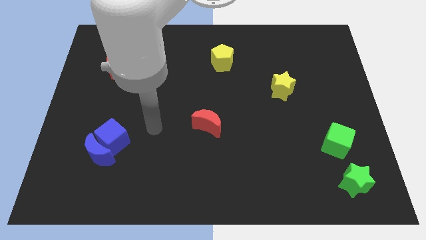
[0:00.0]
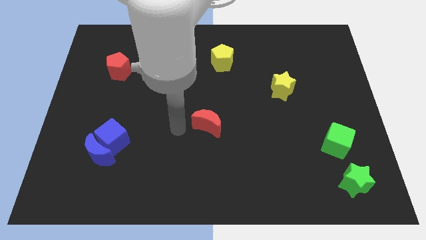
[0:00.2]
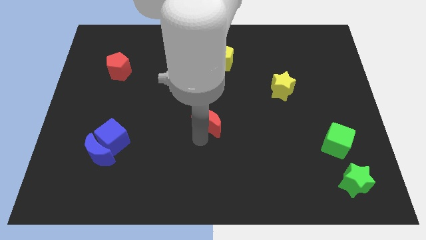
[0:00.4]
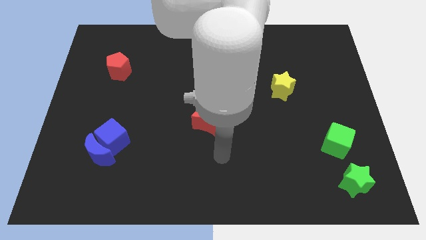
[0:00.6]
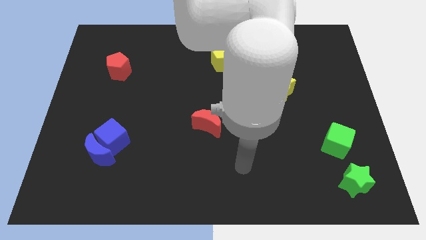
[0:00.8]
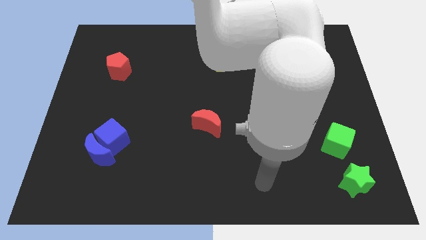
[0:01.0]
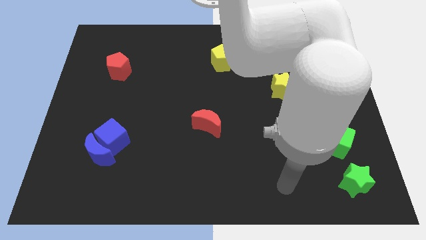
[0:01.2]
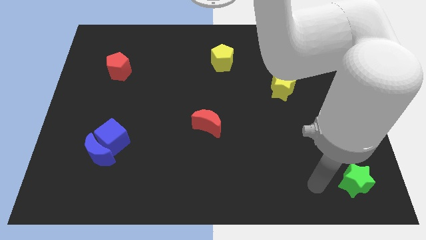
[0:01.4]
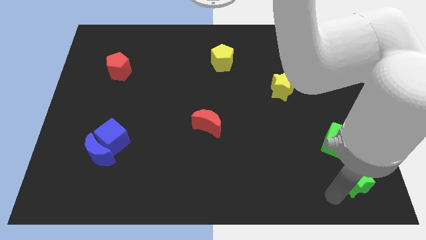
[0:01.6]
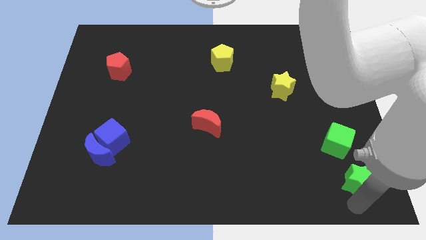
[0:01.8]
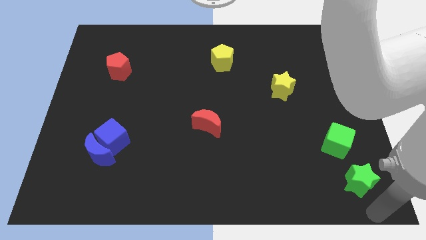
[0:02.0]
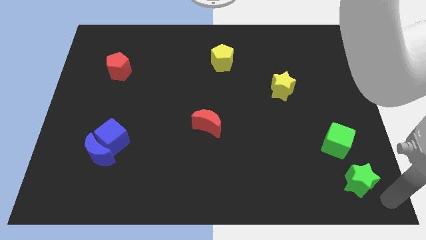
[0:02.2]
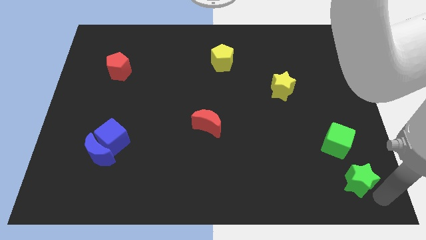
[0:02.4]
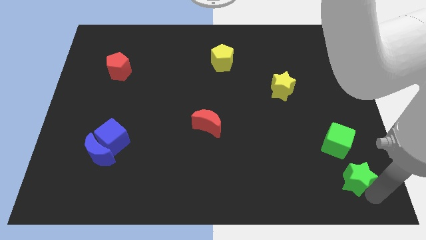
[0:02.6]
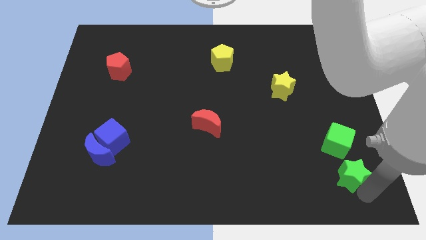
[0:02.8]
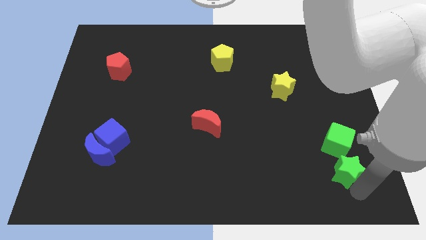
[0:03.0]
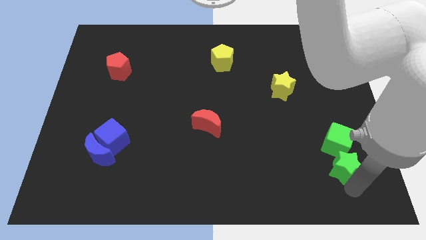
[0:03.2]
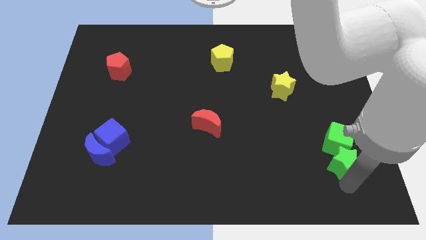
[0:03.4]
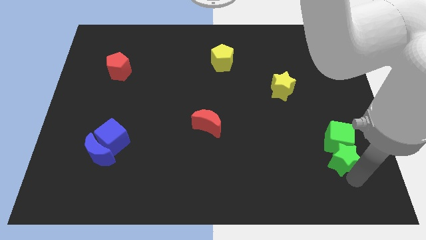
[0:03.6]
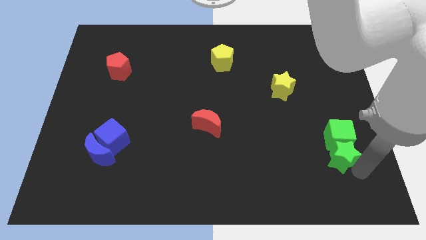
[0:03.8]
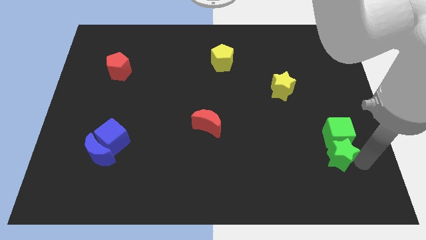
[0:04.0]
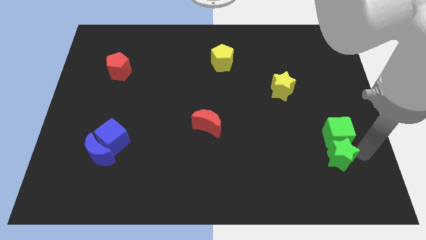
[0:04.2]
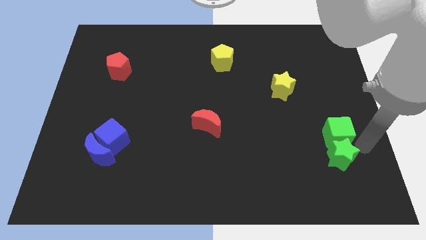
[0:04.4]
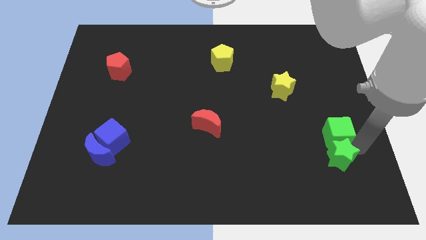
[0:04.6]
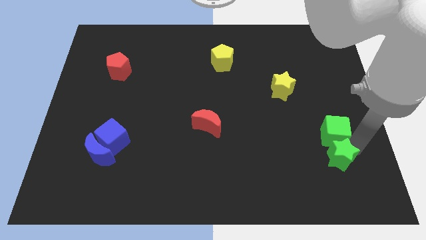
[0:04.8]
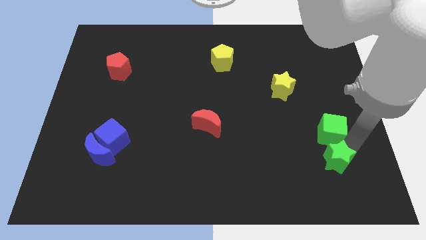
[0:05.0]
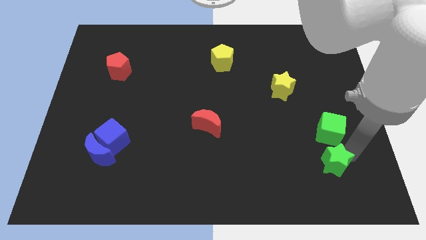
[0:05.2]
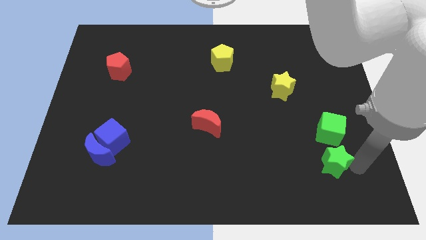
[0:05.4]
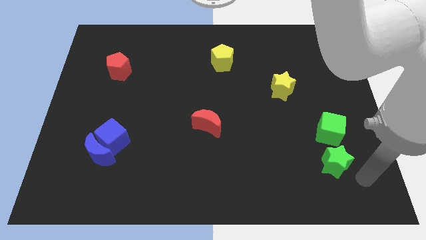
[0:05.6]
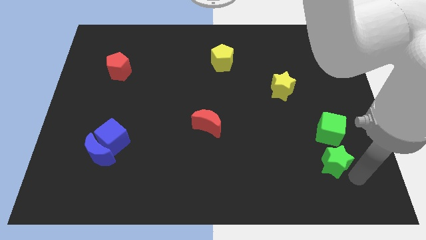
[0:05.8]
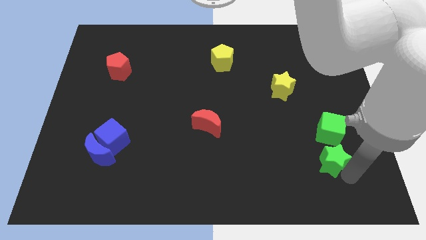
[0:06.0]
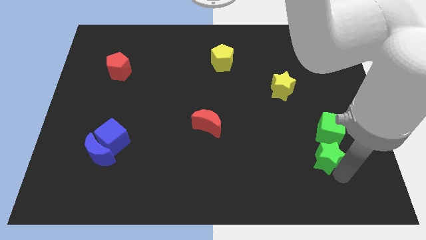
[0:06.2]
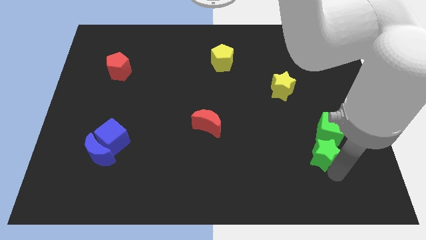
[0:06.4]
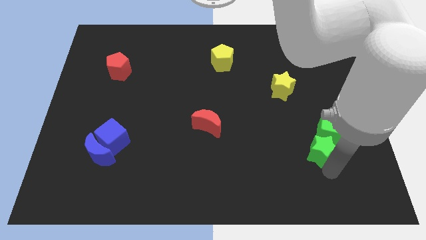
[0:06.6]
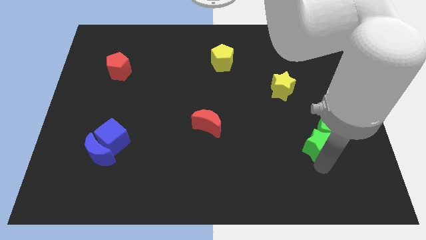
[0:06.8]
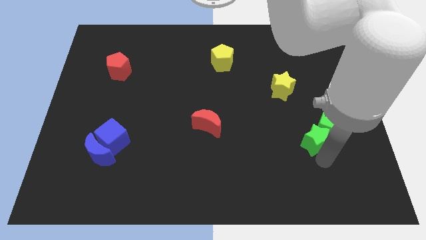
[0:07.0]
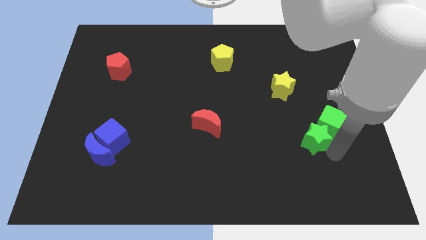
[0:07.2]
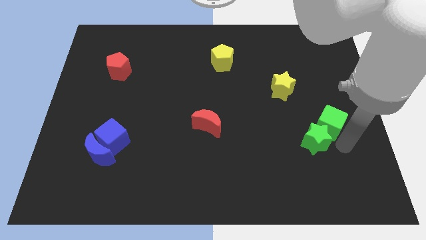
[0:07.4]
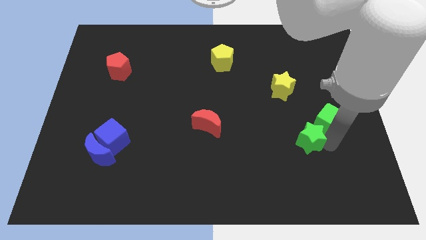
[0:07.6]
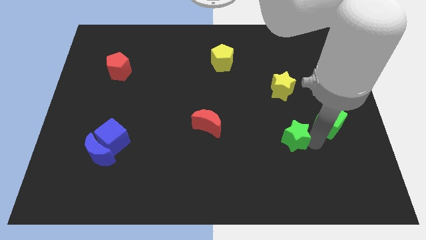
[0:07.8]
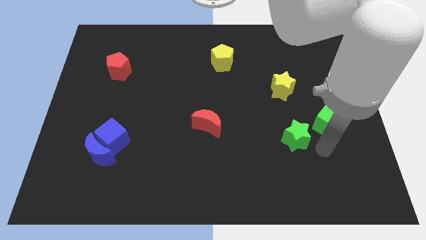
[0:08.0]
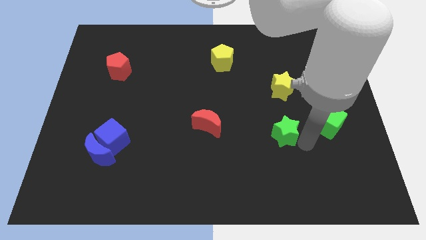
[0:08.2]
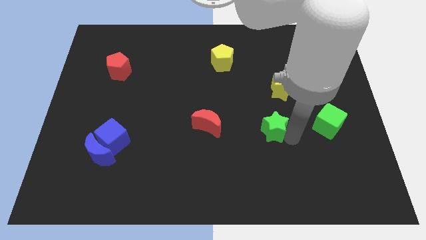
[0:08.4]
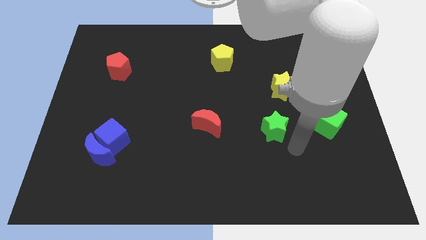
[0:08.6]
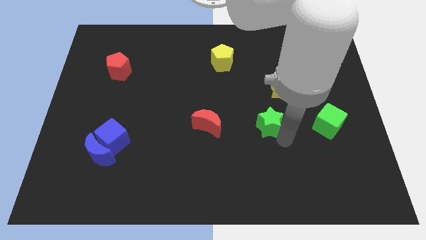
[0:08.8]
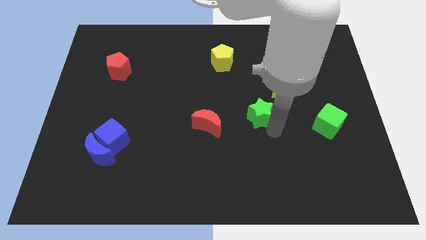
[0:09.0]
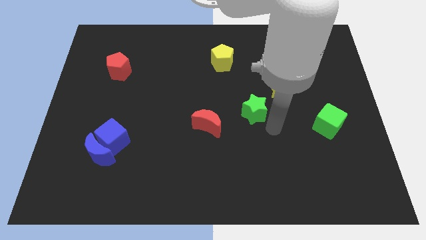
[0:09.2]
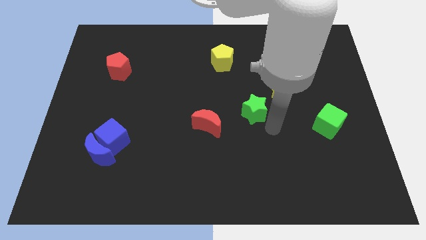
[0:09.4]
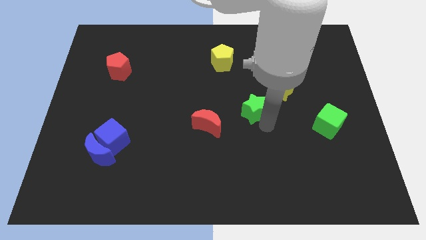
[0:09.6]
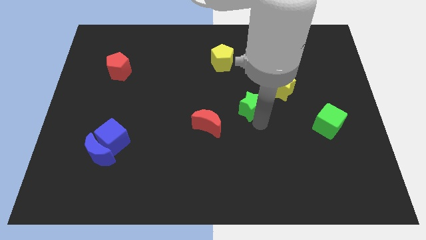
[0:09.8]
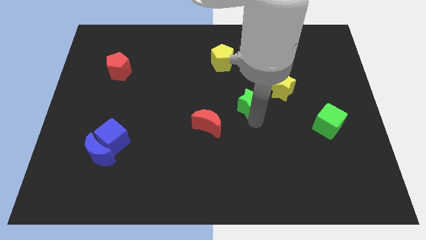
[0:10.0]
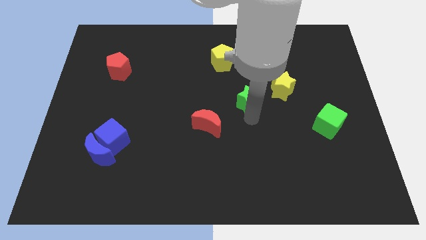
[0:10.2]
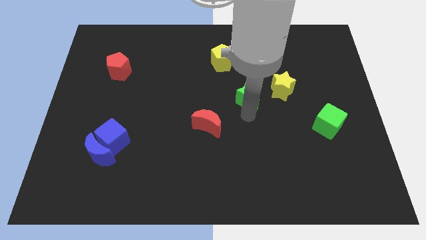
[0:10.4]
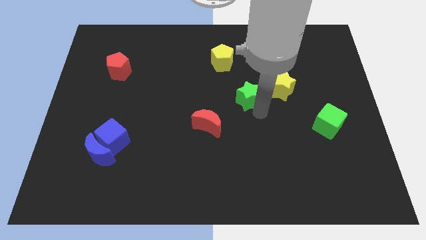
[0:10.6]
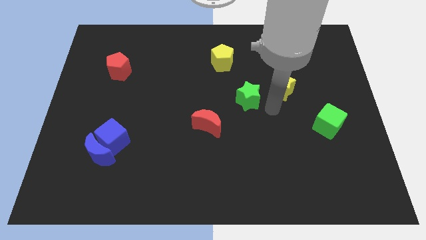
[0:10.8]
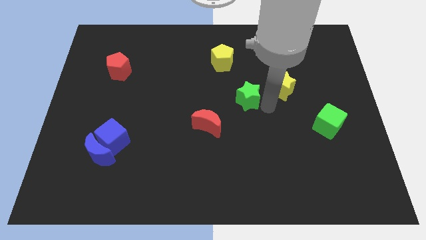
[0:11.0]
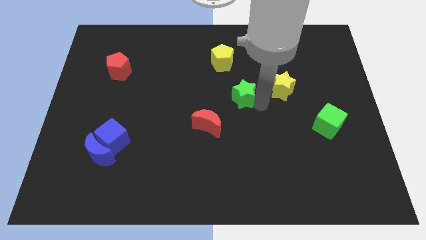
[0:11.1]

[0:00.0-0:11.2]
move the green star below the yellow pentagon

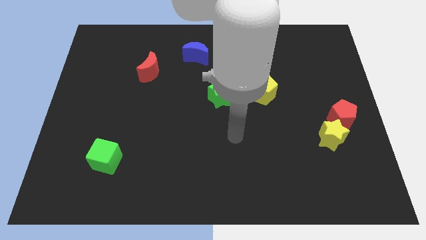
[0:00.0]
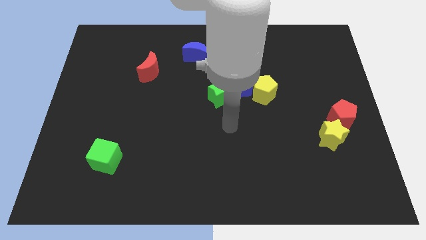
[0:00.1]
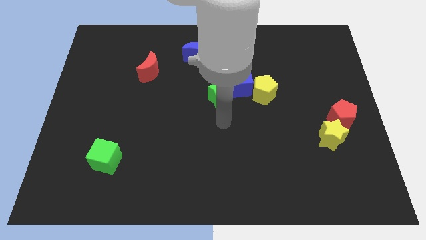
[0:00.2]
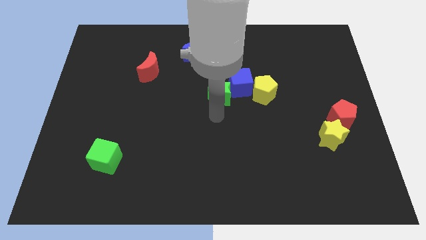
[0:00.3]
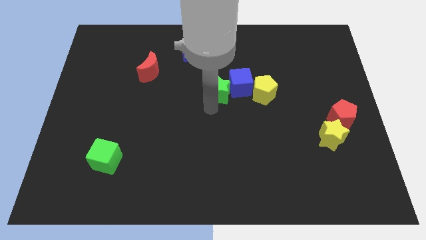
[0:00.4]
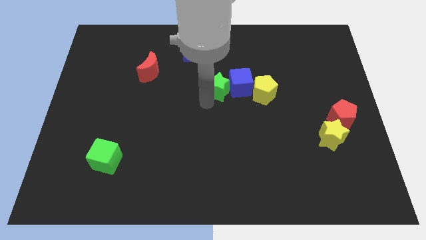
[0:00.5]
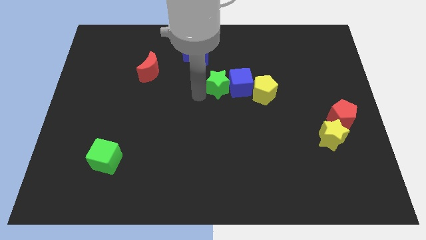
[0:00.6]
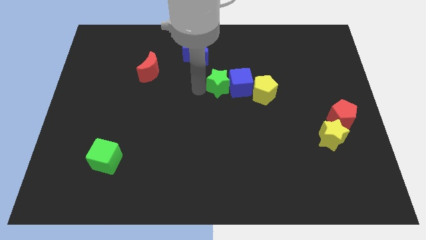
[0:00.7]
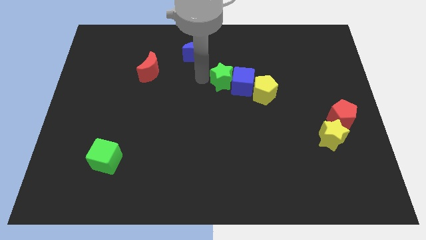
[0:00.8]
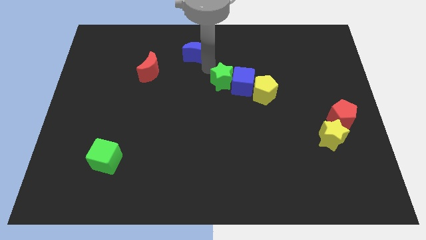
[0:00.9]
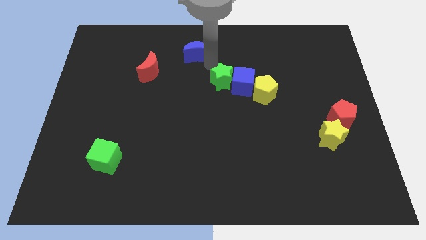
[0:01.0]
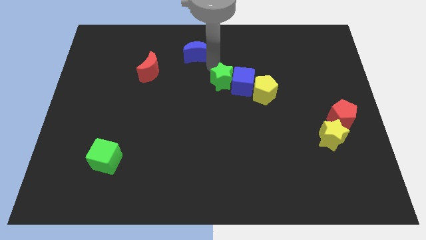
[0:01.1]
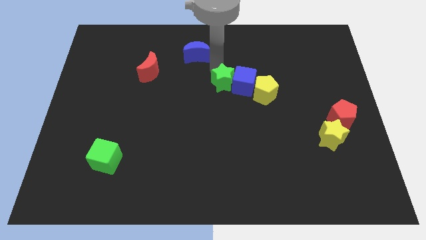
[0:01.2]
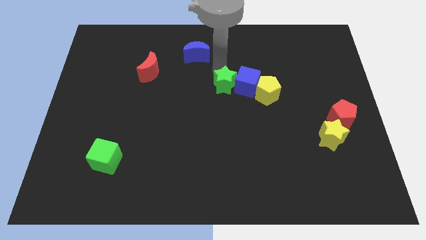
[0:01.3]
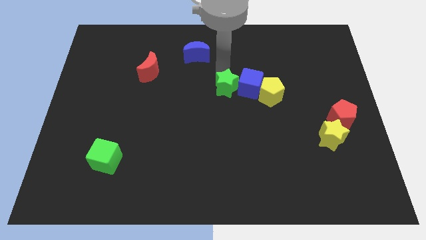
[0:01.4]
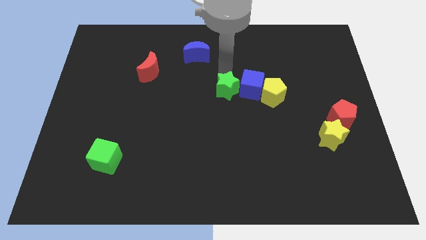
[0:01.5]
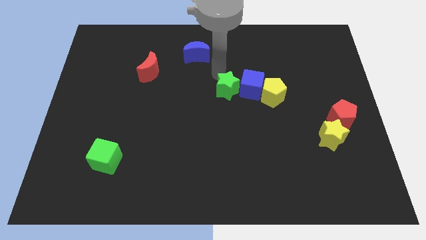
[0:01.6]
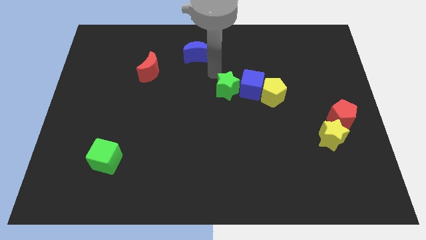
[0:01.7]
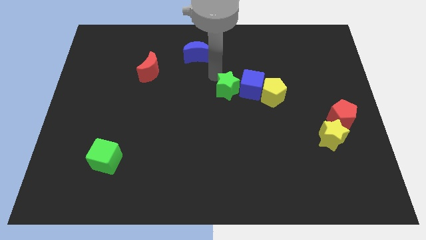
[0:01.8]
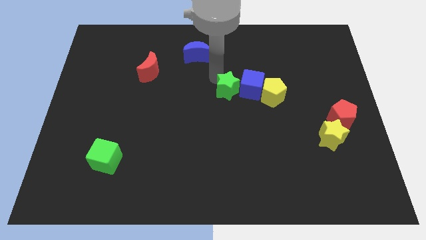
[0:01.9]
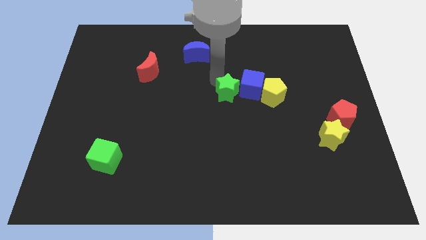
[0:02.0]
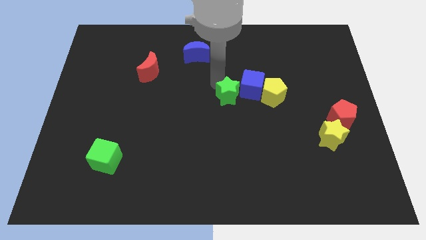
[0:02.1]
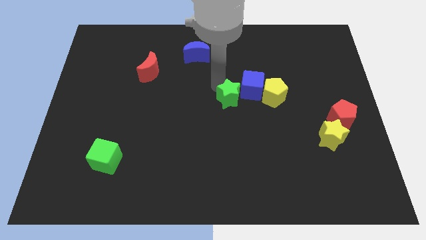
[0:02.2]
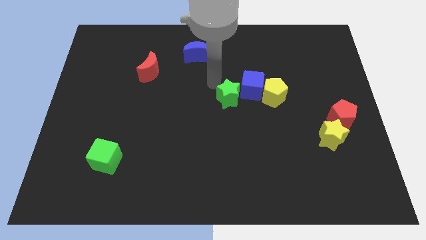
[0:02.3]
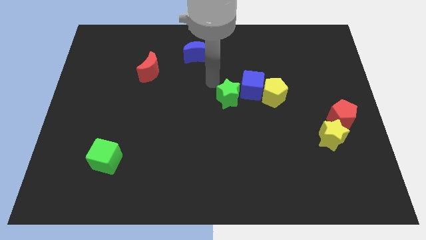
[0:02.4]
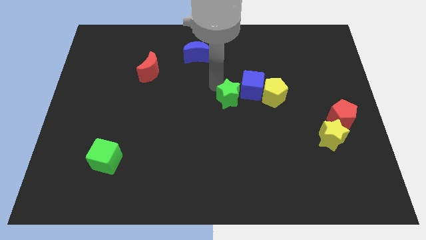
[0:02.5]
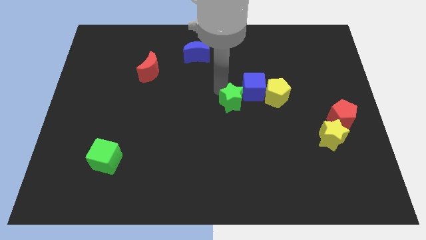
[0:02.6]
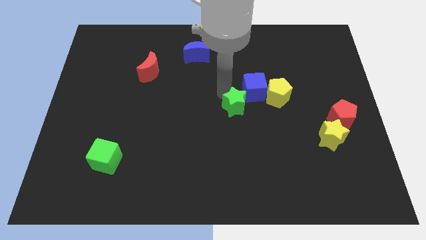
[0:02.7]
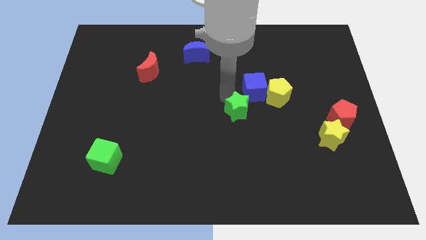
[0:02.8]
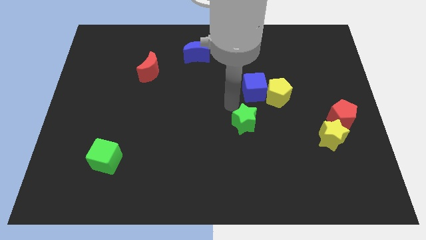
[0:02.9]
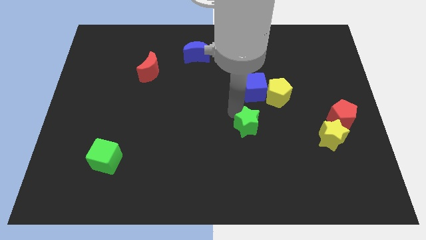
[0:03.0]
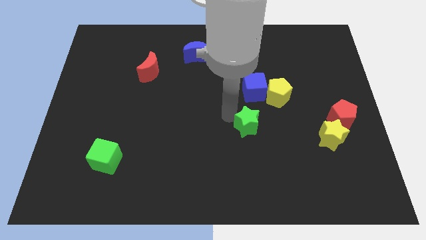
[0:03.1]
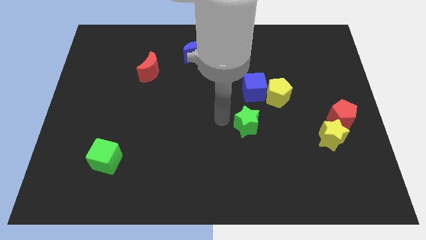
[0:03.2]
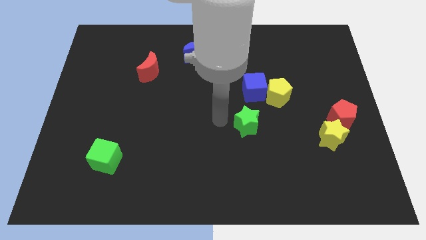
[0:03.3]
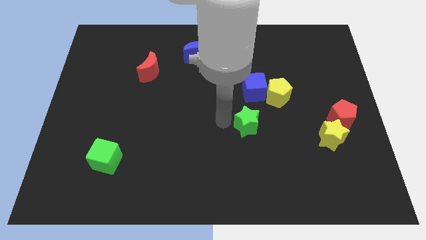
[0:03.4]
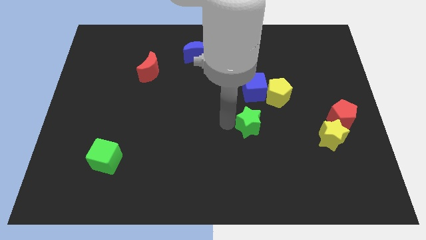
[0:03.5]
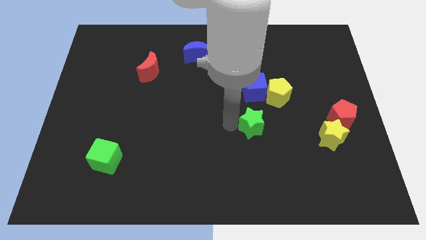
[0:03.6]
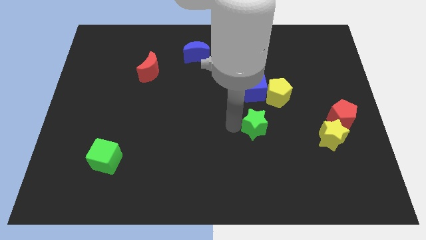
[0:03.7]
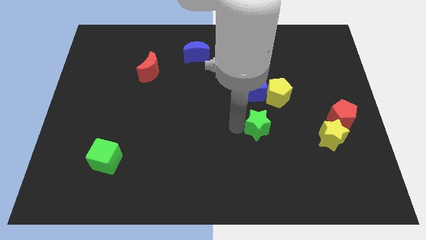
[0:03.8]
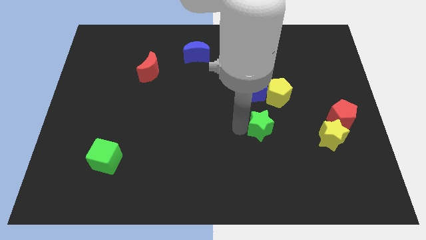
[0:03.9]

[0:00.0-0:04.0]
put the green star below the yellow pentagon
